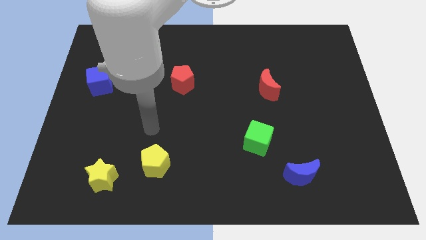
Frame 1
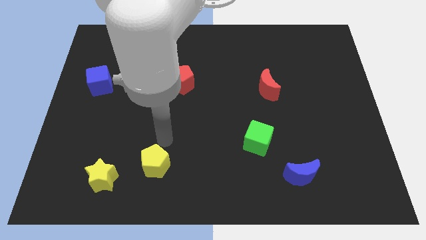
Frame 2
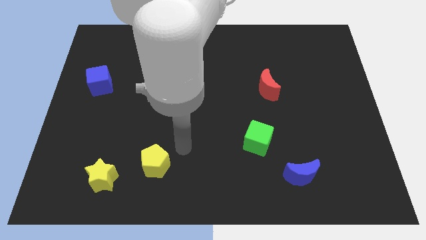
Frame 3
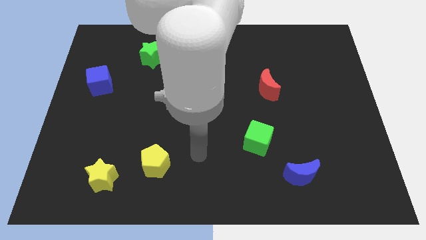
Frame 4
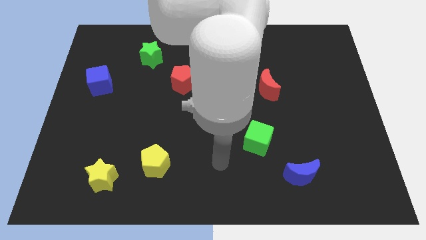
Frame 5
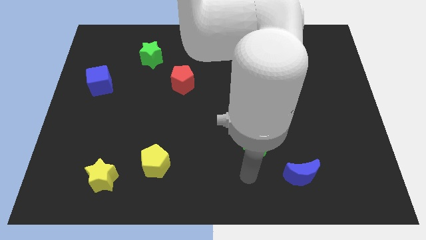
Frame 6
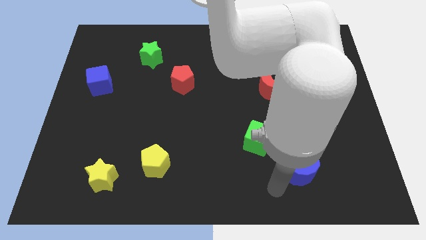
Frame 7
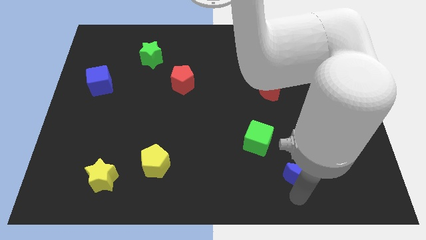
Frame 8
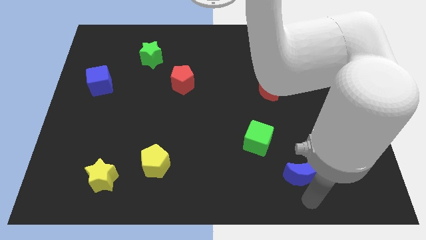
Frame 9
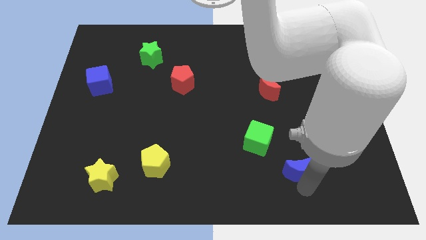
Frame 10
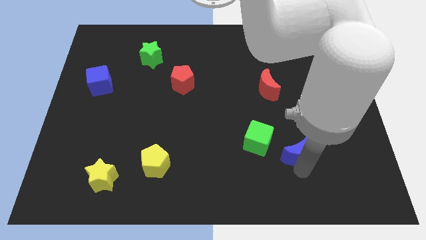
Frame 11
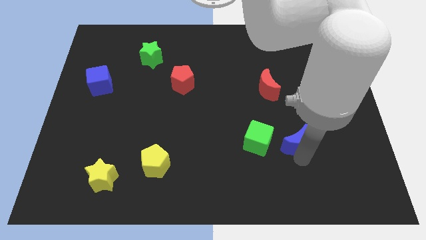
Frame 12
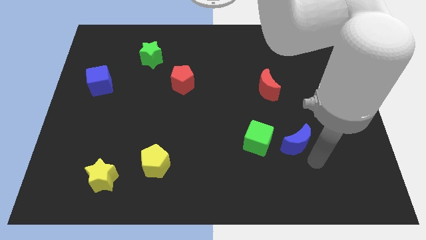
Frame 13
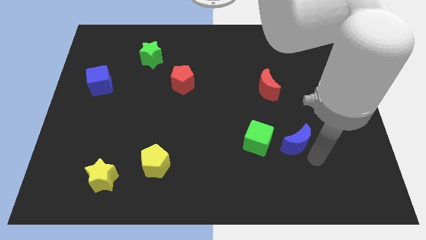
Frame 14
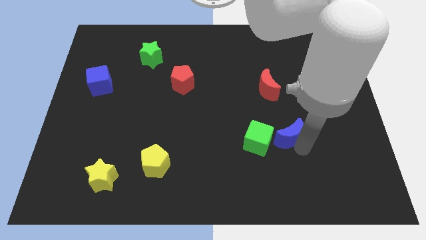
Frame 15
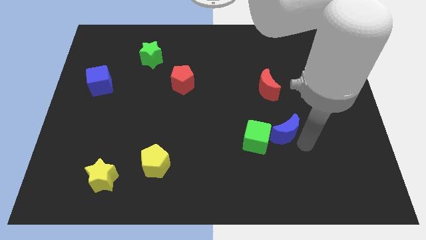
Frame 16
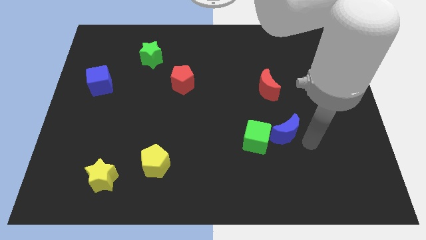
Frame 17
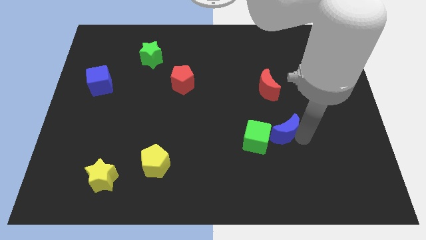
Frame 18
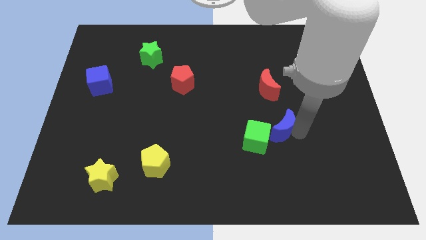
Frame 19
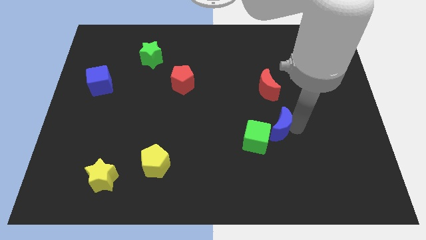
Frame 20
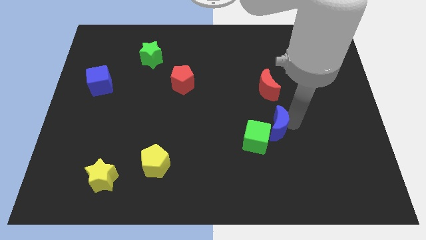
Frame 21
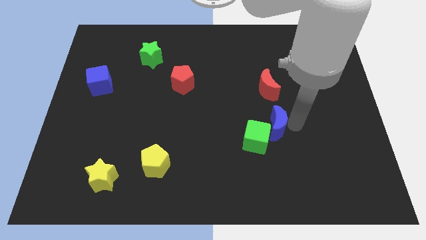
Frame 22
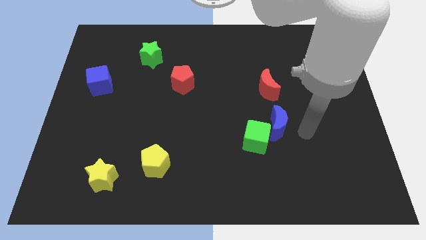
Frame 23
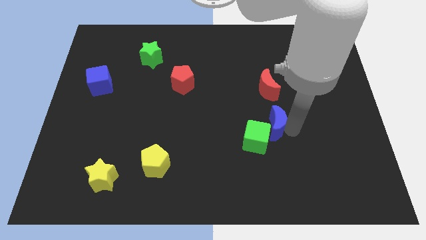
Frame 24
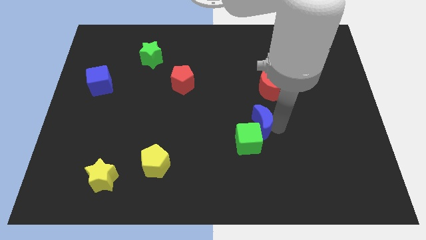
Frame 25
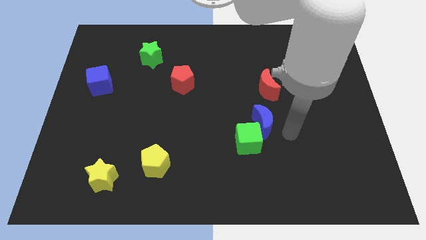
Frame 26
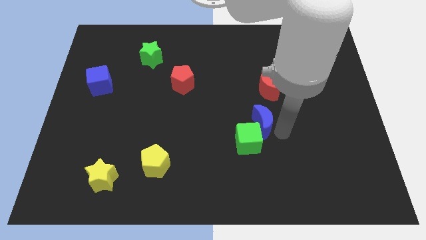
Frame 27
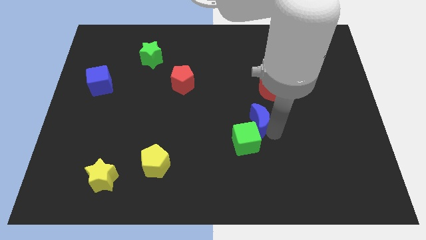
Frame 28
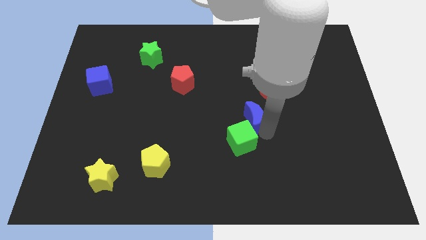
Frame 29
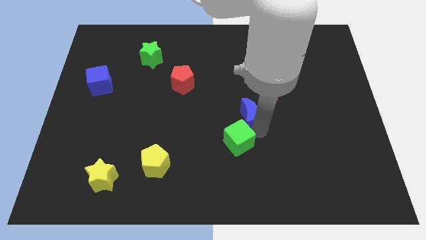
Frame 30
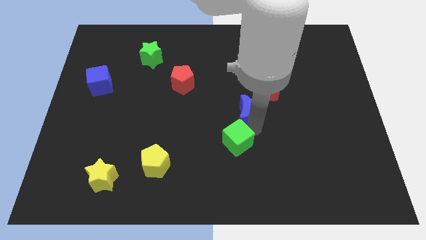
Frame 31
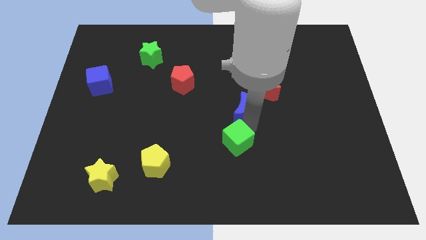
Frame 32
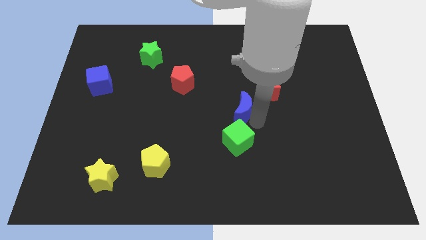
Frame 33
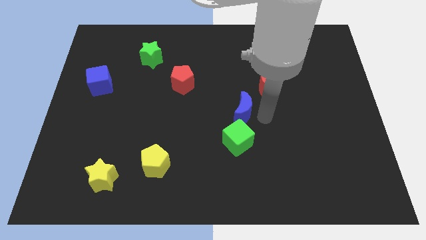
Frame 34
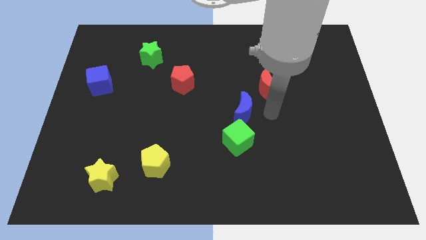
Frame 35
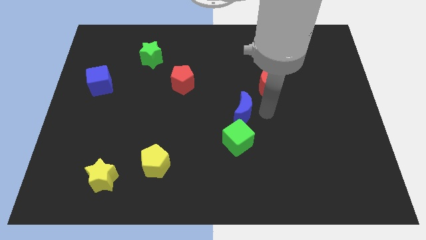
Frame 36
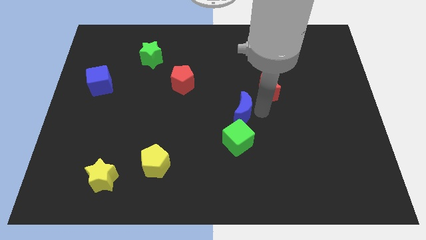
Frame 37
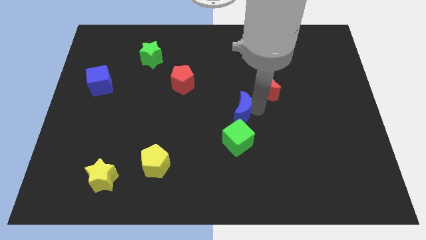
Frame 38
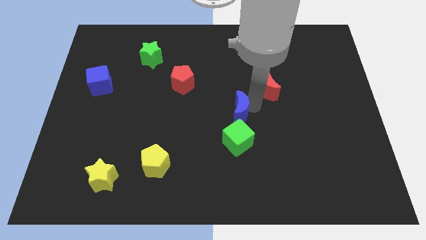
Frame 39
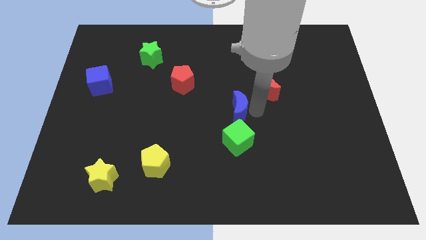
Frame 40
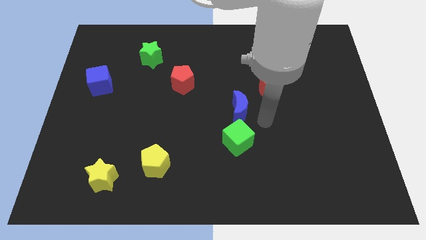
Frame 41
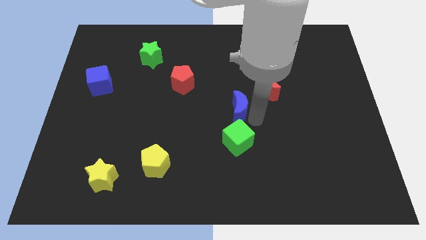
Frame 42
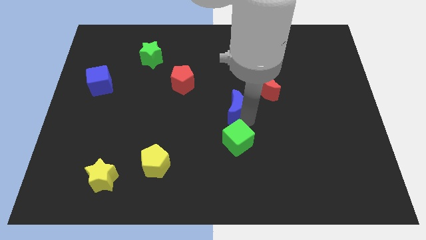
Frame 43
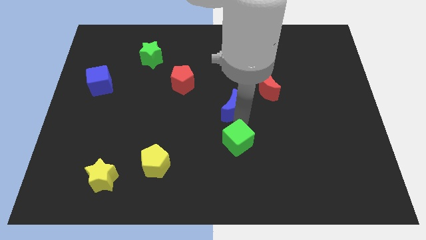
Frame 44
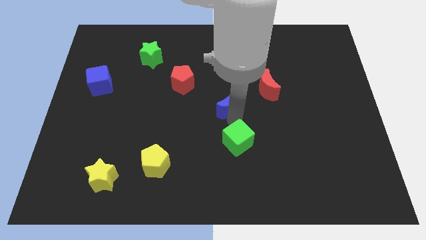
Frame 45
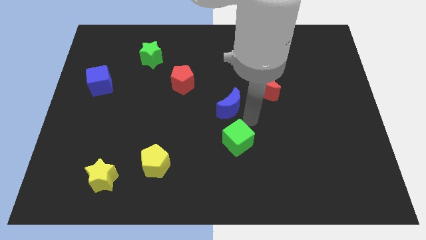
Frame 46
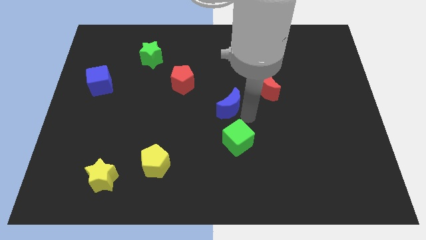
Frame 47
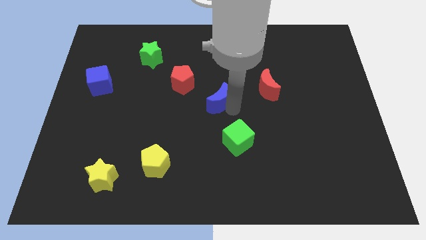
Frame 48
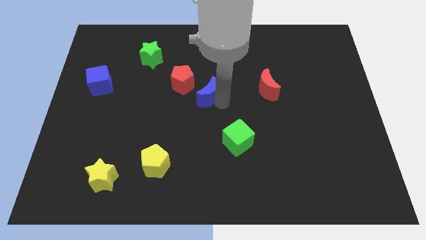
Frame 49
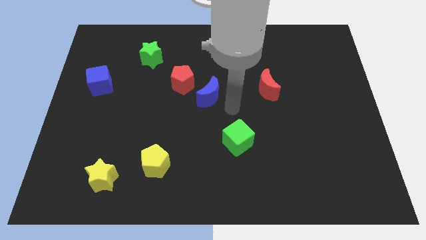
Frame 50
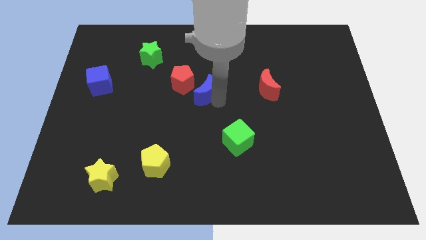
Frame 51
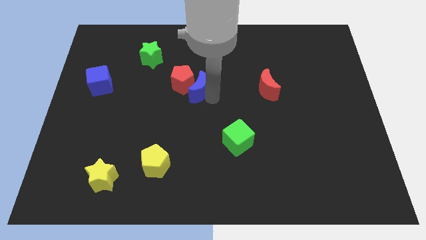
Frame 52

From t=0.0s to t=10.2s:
slide the blue moon towards the red pentagon

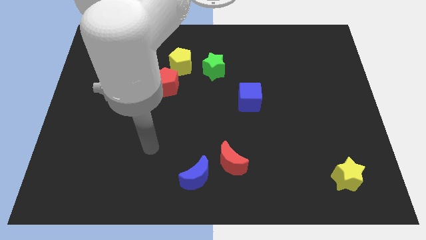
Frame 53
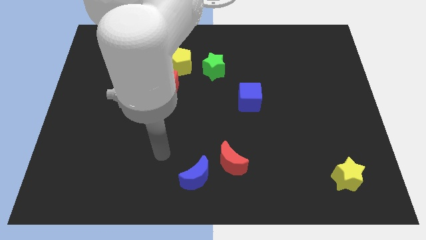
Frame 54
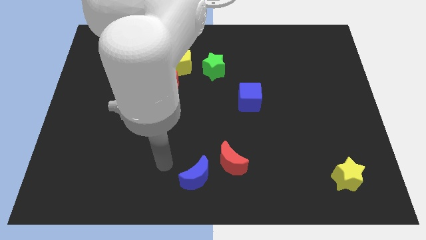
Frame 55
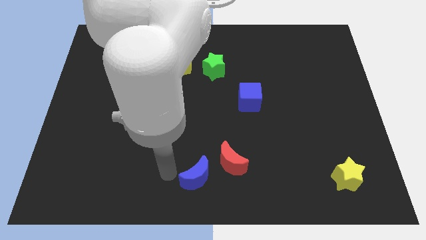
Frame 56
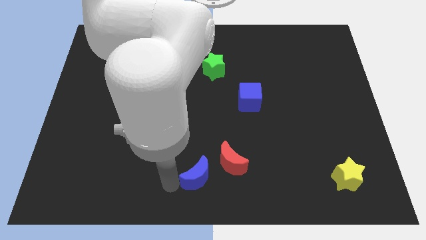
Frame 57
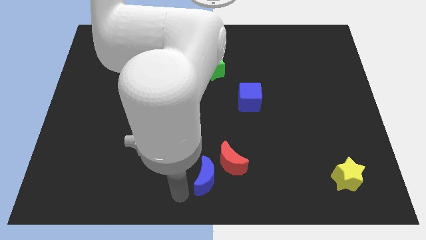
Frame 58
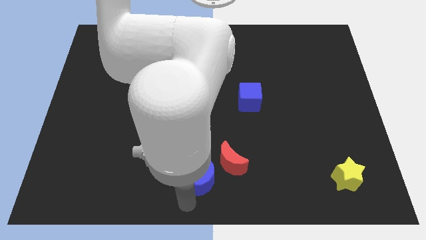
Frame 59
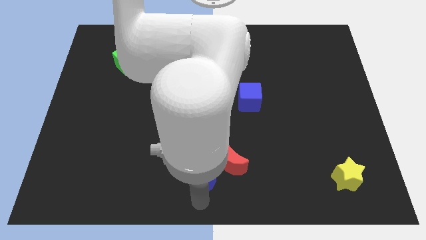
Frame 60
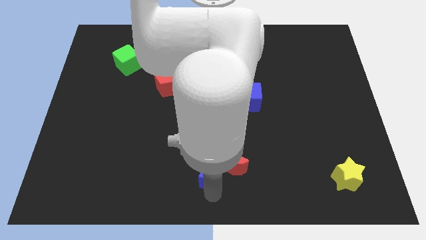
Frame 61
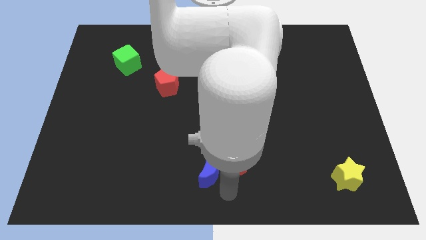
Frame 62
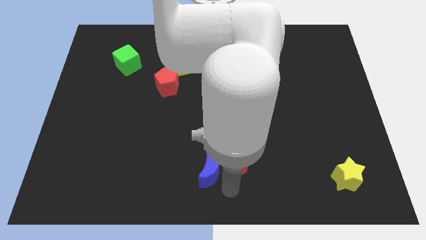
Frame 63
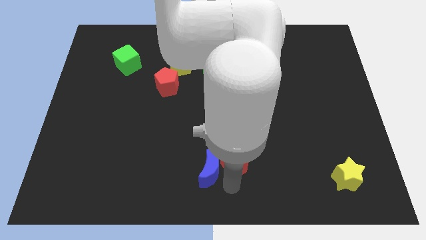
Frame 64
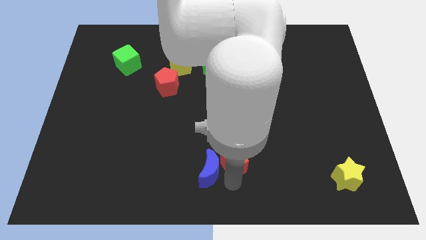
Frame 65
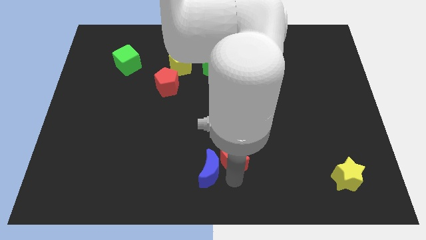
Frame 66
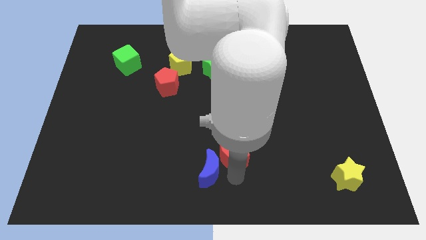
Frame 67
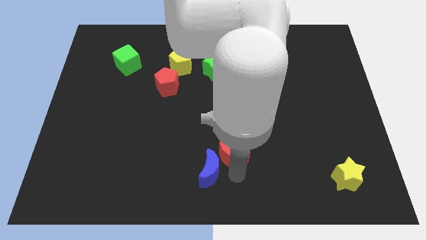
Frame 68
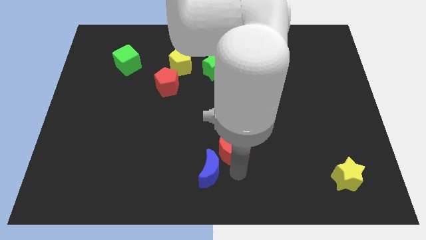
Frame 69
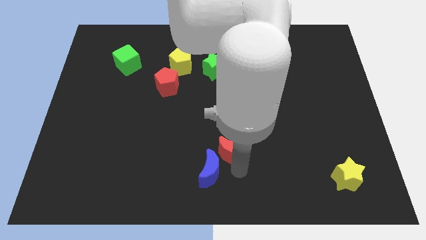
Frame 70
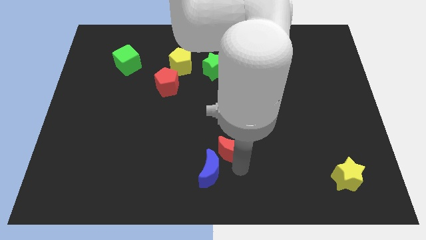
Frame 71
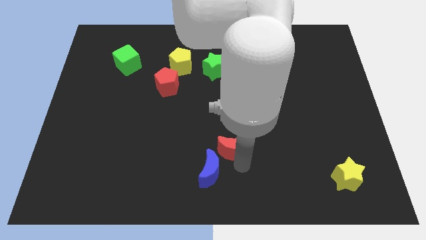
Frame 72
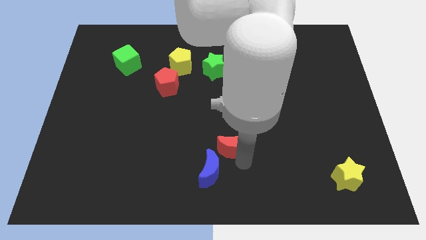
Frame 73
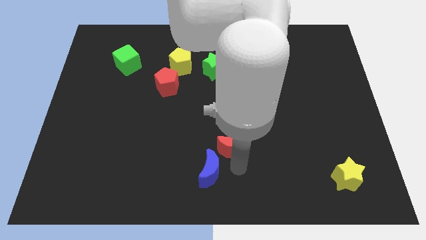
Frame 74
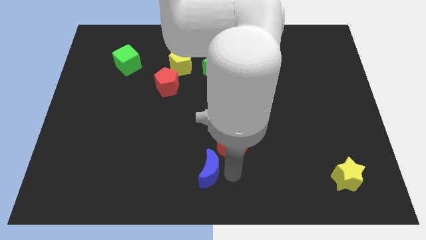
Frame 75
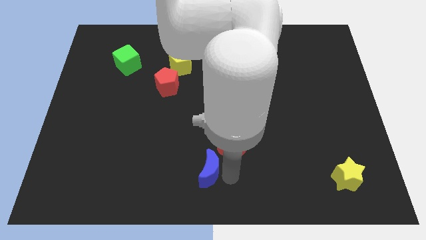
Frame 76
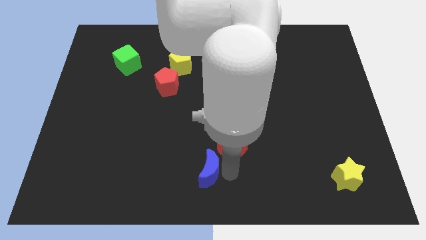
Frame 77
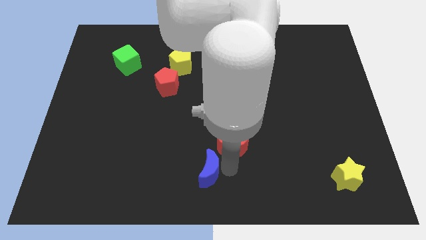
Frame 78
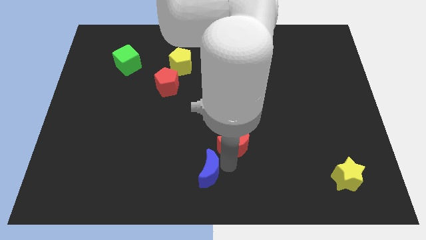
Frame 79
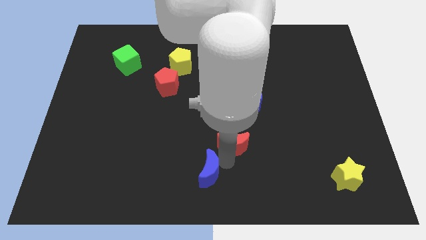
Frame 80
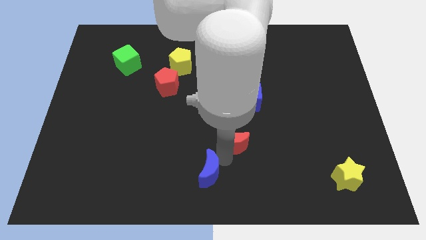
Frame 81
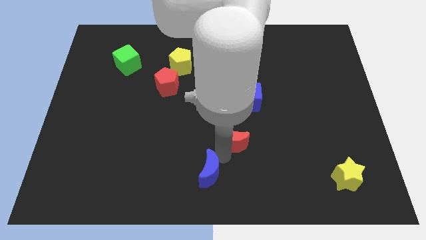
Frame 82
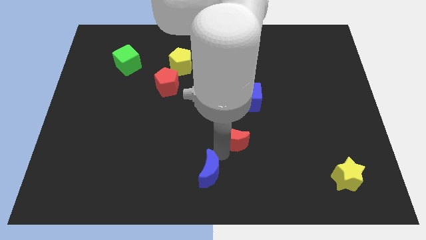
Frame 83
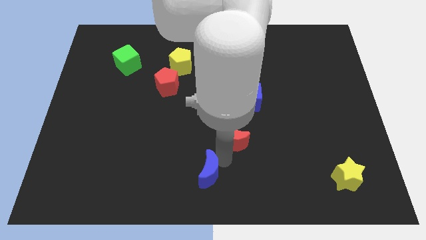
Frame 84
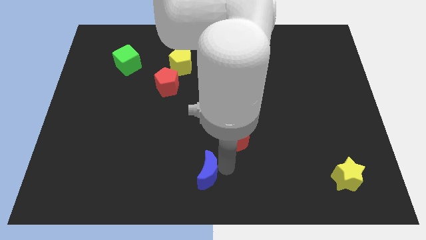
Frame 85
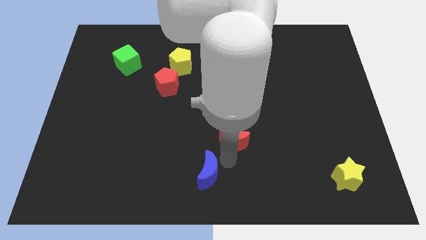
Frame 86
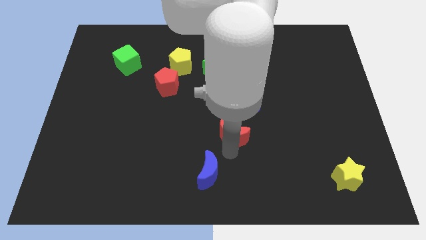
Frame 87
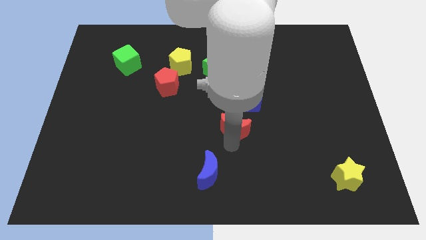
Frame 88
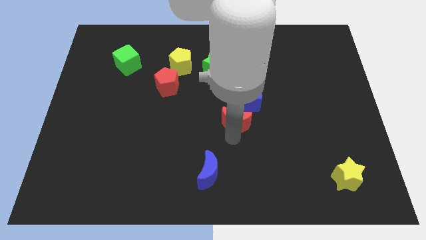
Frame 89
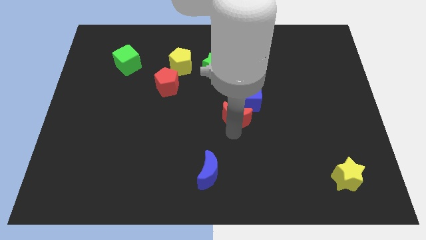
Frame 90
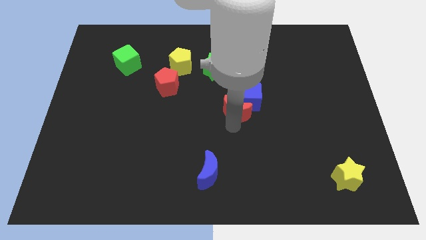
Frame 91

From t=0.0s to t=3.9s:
put the red moon close to the blue cube
